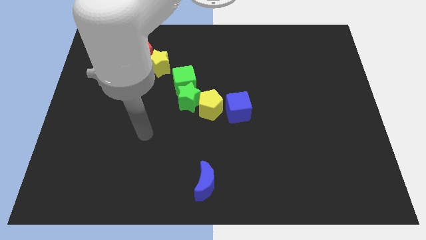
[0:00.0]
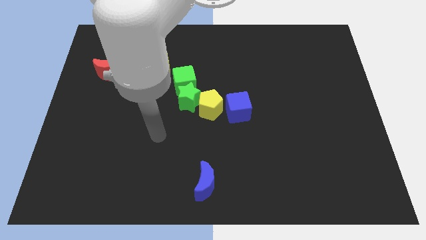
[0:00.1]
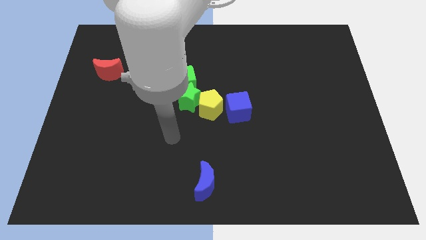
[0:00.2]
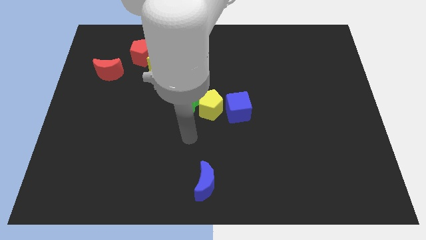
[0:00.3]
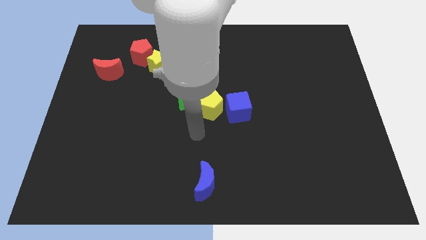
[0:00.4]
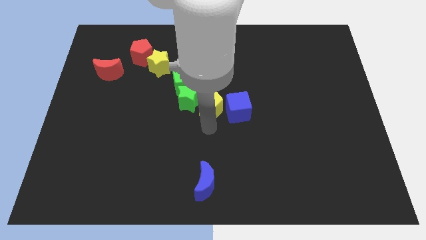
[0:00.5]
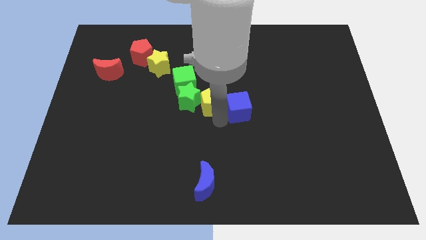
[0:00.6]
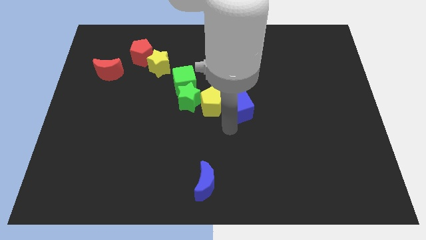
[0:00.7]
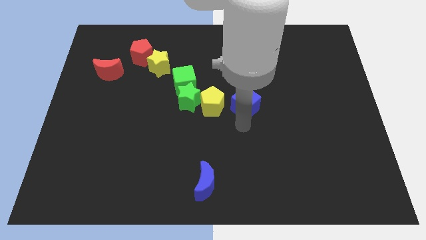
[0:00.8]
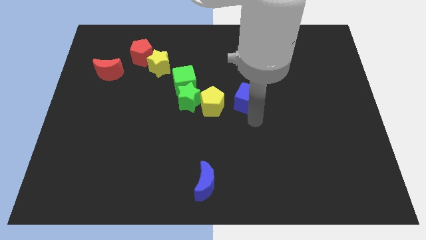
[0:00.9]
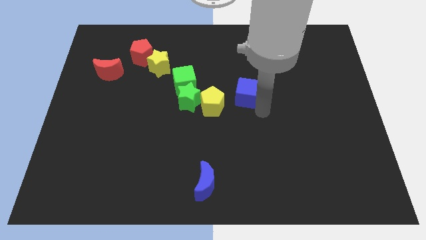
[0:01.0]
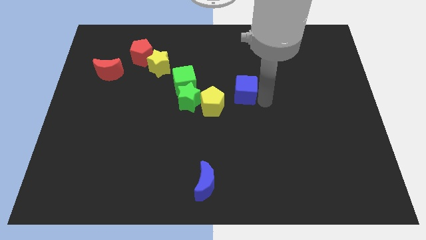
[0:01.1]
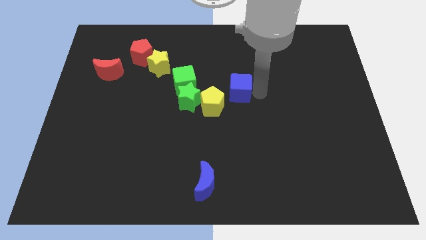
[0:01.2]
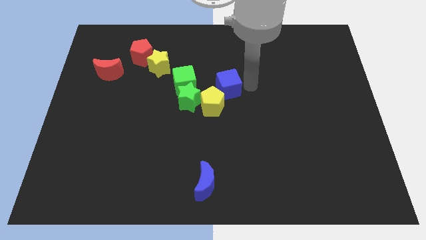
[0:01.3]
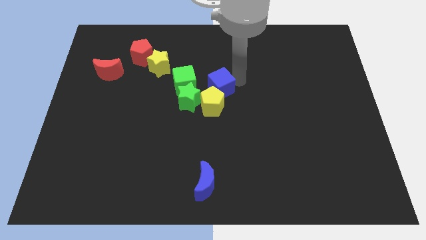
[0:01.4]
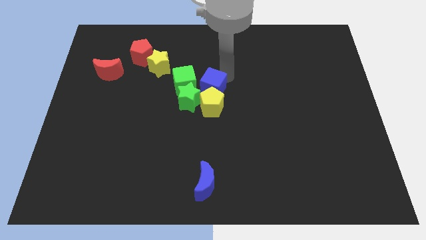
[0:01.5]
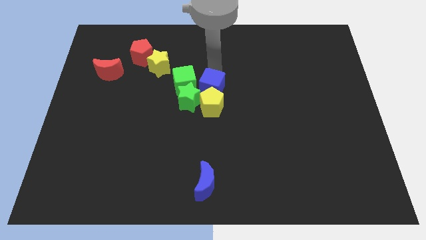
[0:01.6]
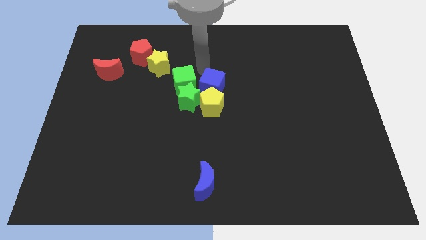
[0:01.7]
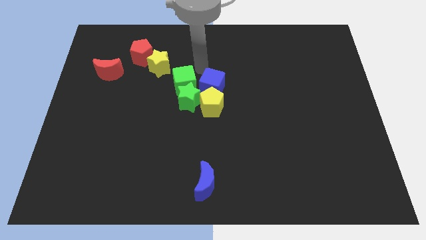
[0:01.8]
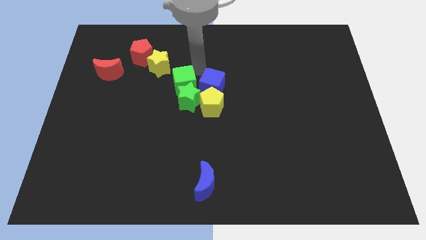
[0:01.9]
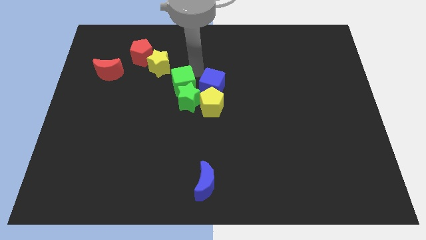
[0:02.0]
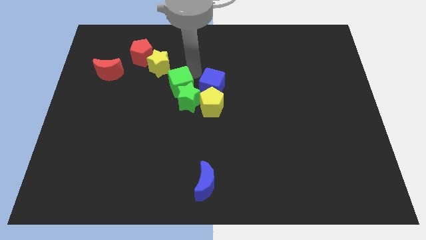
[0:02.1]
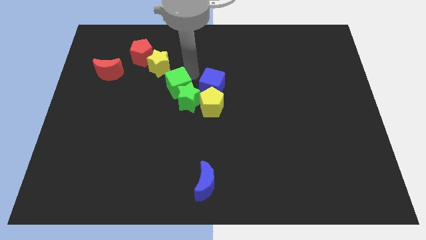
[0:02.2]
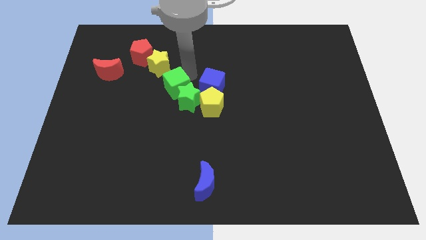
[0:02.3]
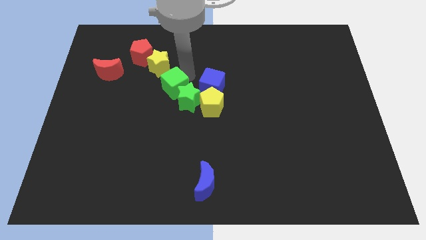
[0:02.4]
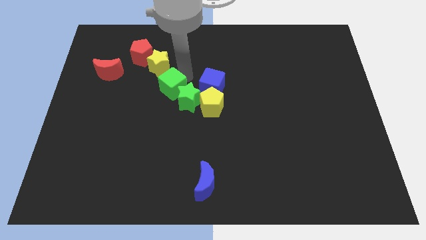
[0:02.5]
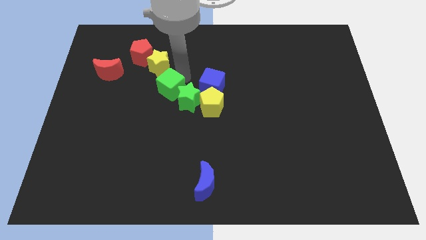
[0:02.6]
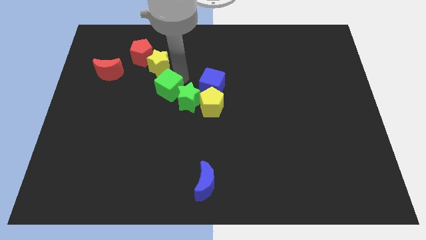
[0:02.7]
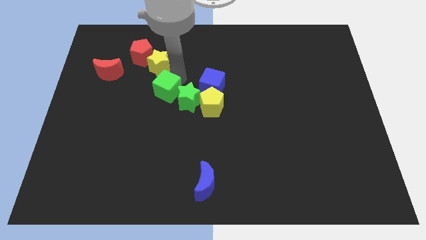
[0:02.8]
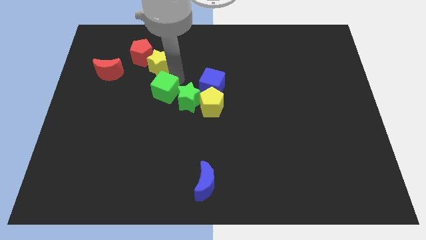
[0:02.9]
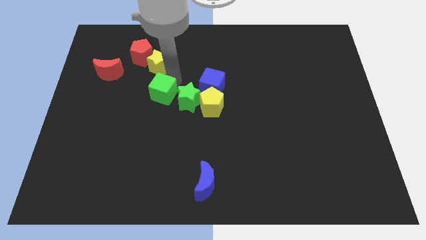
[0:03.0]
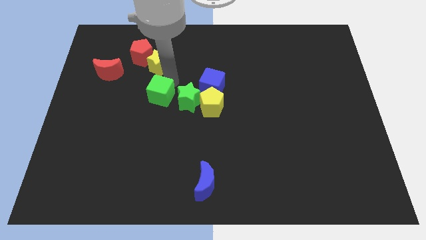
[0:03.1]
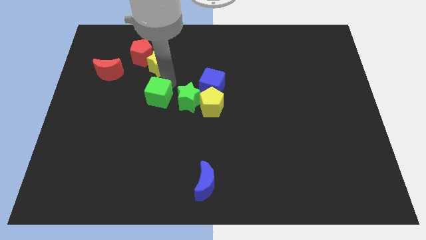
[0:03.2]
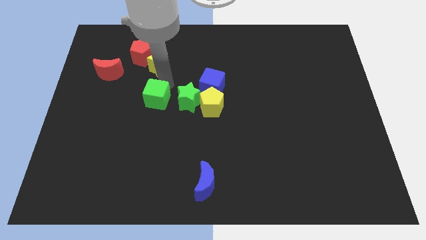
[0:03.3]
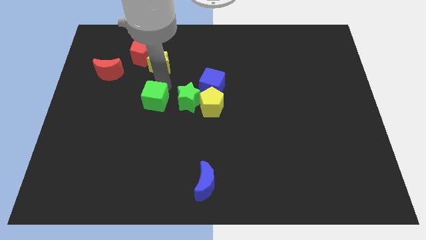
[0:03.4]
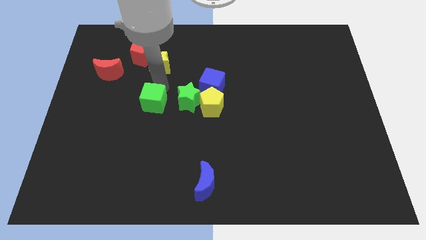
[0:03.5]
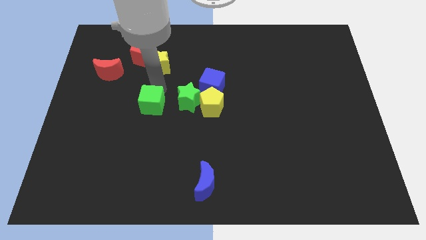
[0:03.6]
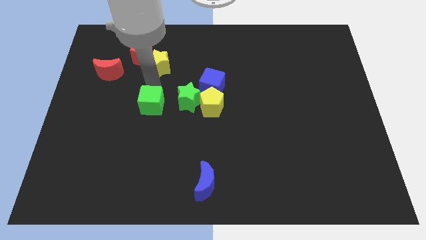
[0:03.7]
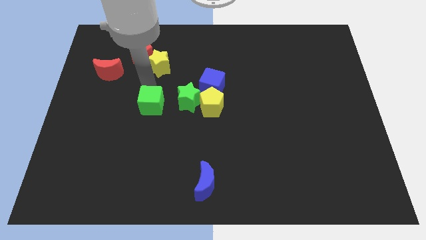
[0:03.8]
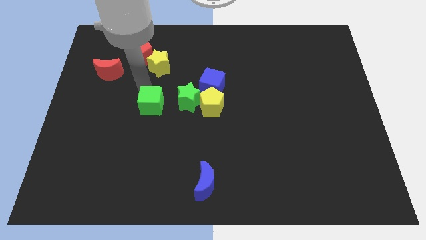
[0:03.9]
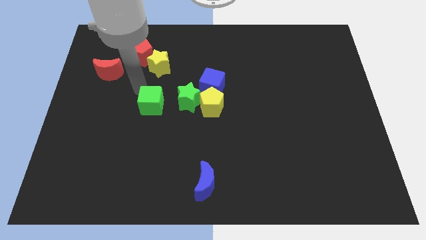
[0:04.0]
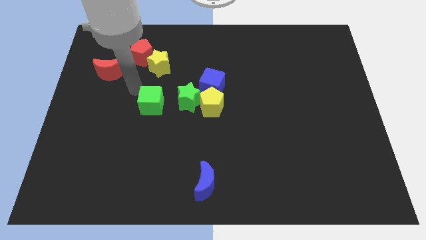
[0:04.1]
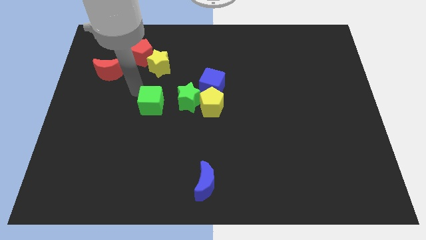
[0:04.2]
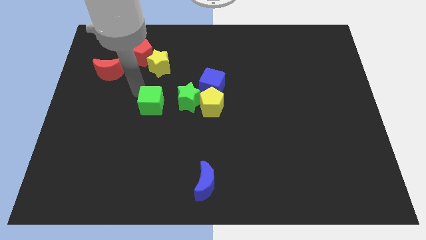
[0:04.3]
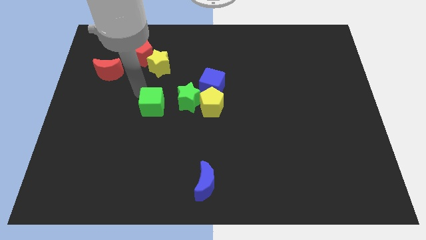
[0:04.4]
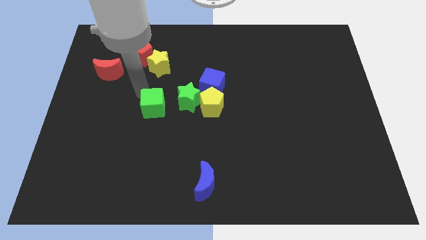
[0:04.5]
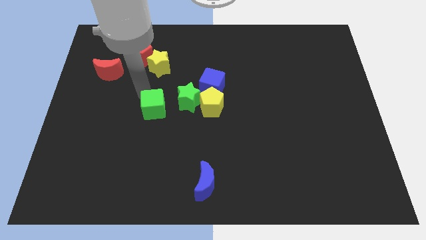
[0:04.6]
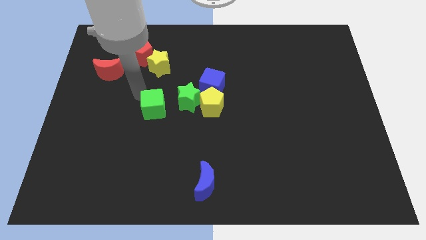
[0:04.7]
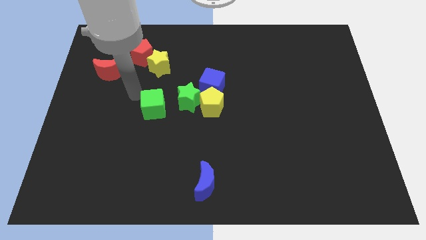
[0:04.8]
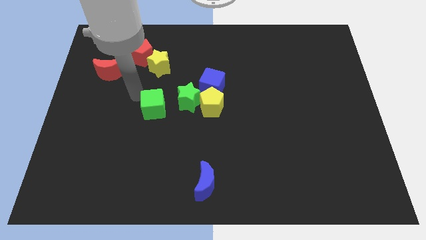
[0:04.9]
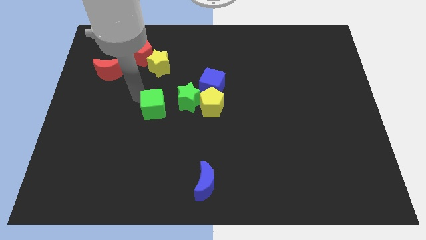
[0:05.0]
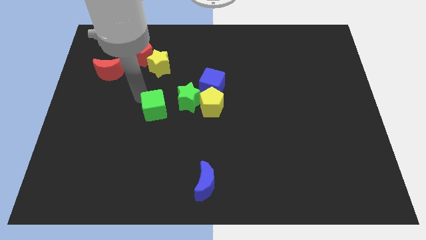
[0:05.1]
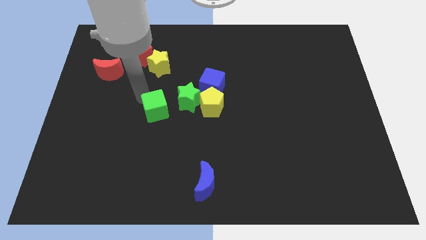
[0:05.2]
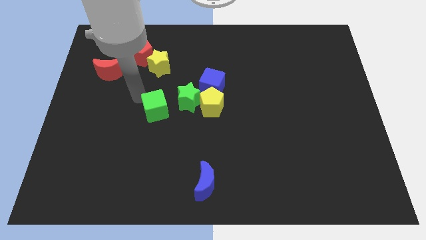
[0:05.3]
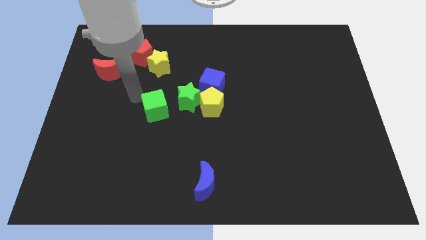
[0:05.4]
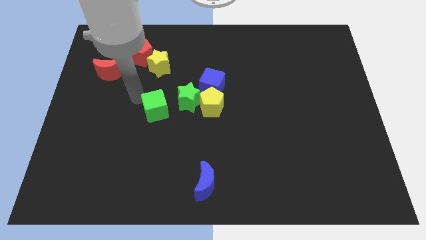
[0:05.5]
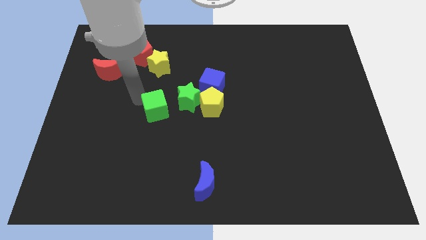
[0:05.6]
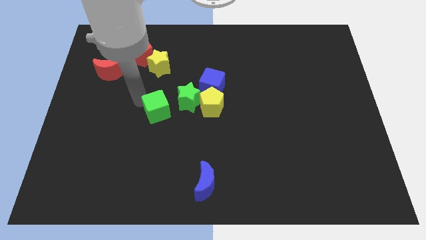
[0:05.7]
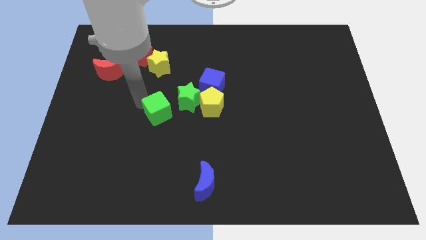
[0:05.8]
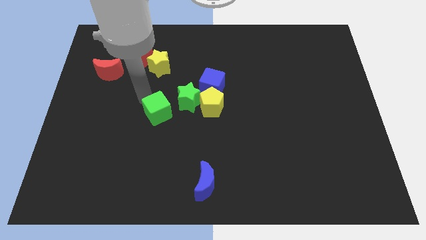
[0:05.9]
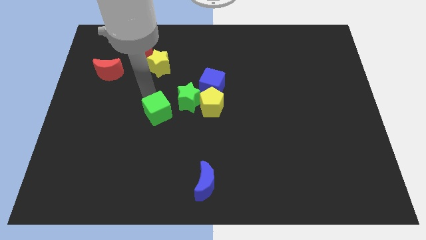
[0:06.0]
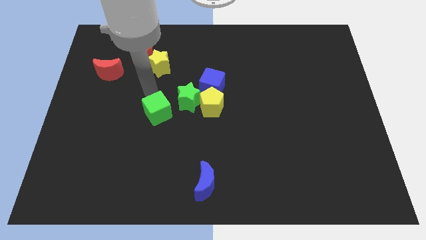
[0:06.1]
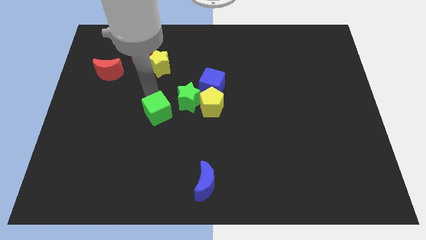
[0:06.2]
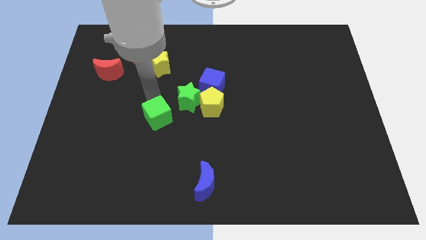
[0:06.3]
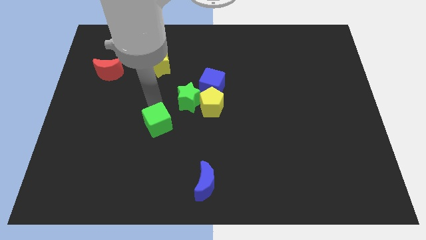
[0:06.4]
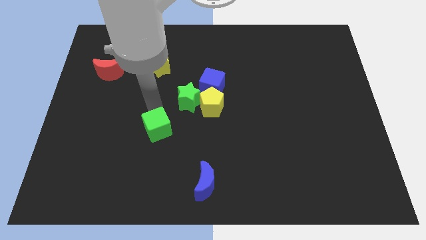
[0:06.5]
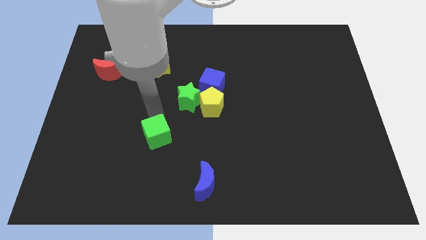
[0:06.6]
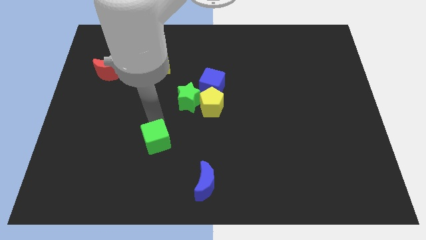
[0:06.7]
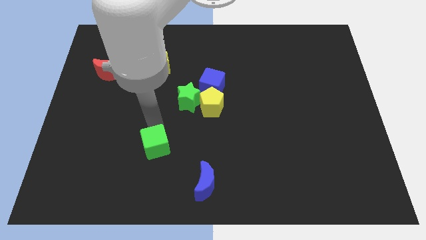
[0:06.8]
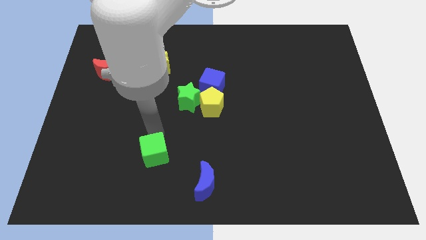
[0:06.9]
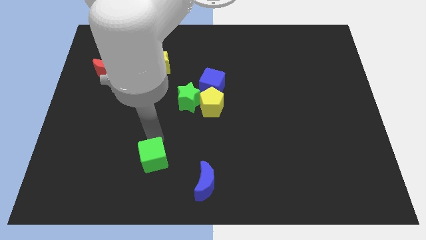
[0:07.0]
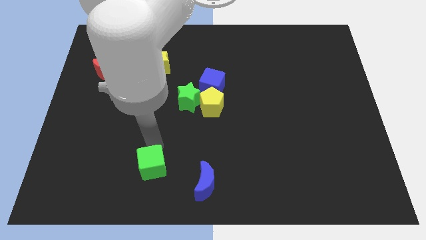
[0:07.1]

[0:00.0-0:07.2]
slide the green cube to the left side of the blue moon
